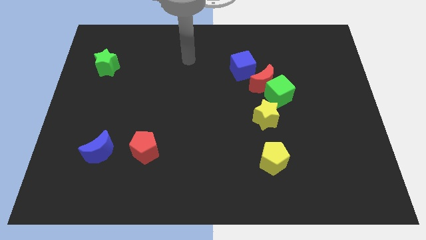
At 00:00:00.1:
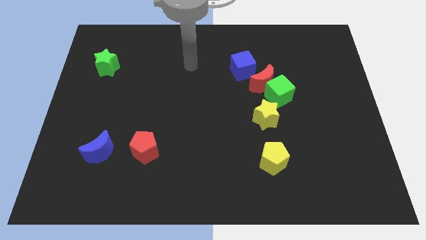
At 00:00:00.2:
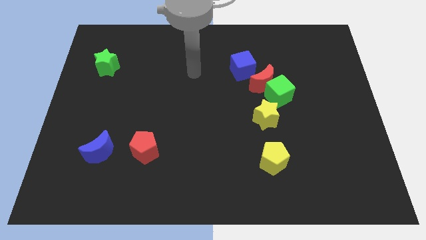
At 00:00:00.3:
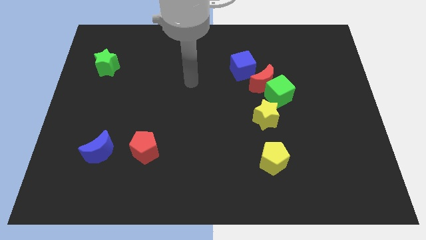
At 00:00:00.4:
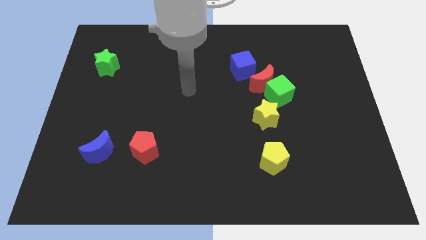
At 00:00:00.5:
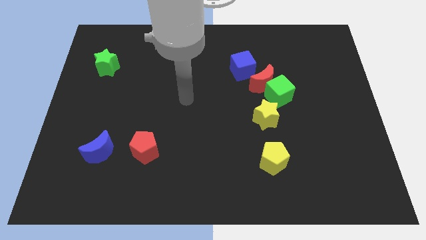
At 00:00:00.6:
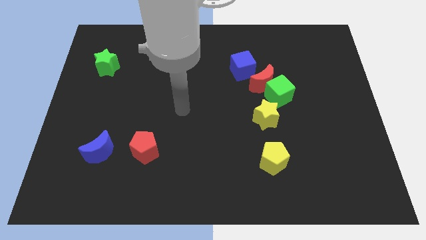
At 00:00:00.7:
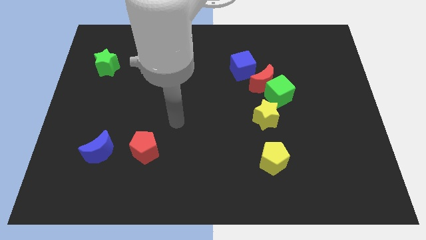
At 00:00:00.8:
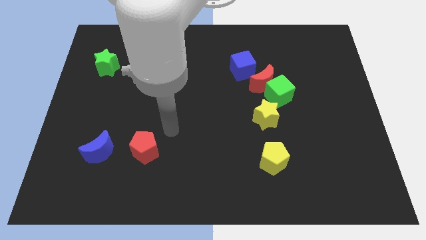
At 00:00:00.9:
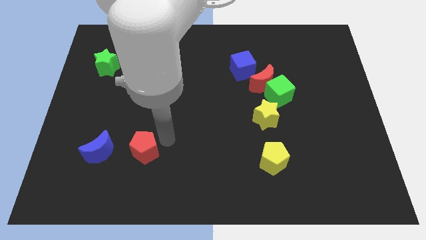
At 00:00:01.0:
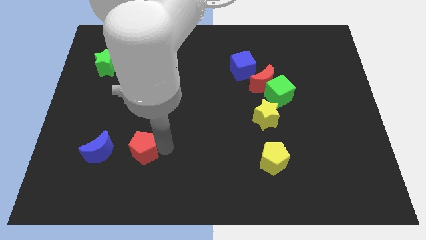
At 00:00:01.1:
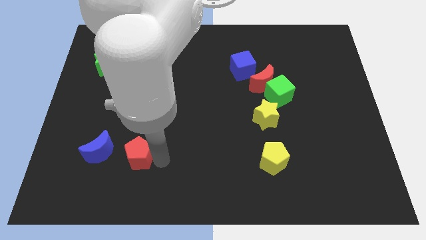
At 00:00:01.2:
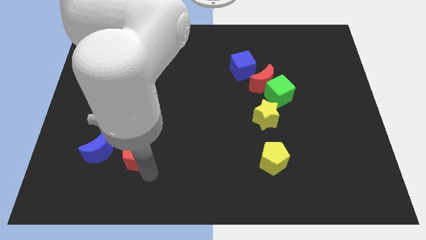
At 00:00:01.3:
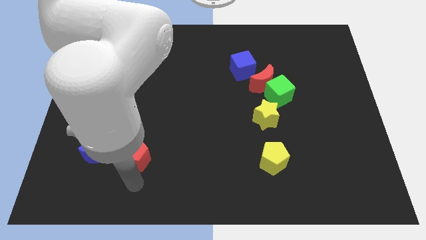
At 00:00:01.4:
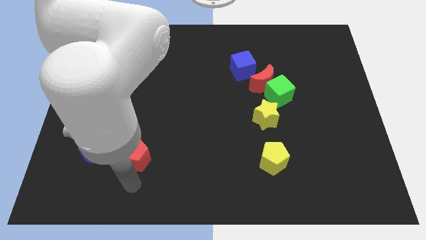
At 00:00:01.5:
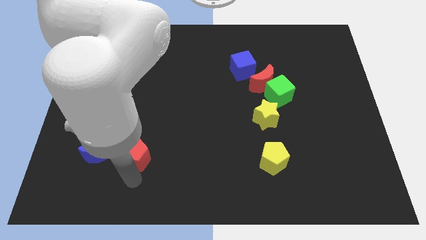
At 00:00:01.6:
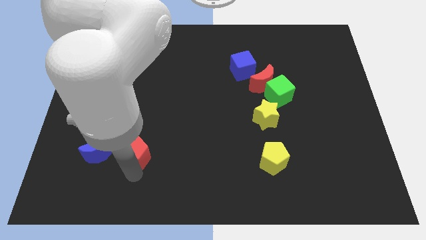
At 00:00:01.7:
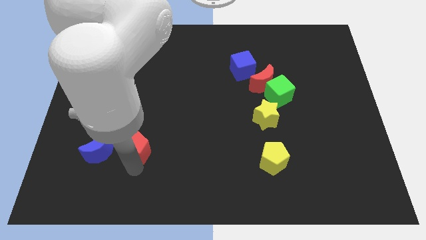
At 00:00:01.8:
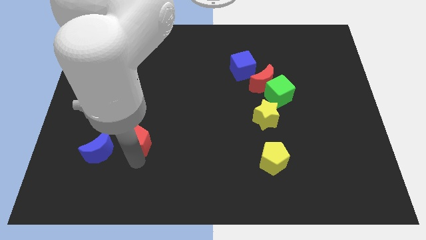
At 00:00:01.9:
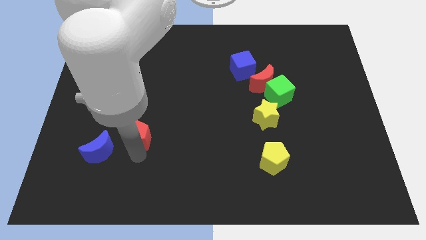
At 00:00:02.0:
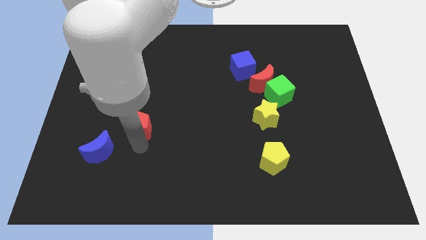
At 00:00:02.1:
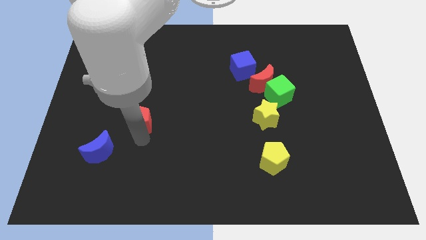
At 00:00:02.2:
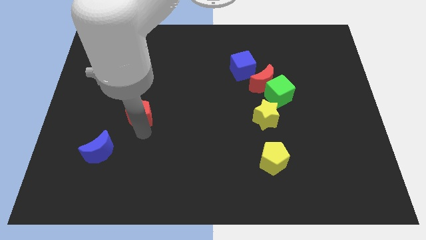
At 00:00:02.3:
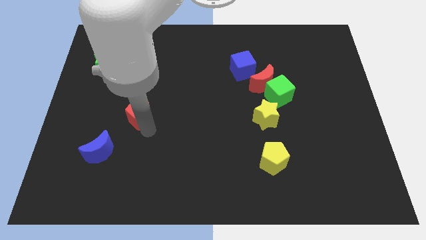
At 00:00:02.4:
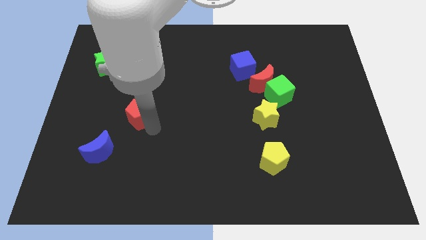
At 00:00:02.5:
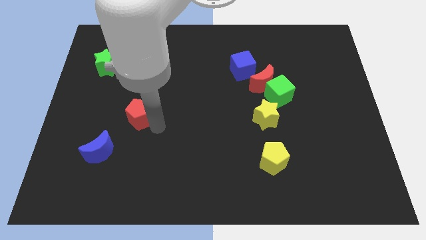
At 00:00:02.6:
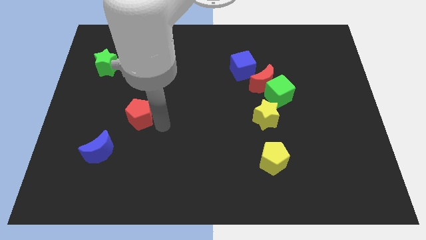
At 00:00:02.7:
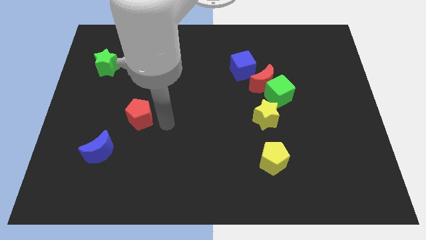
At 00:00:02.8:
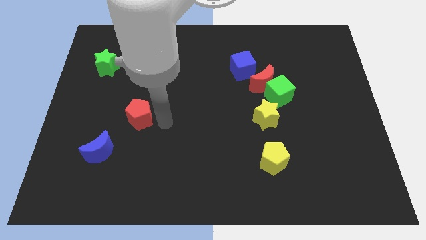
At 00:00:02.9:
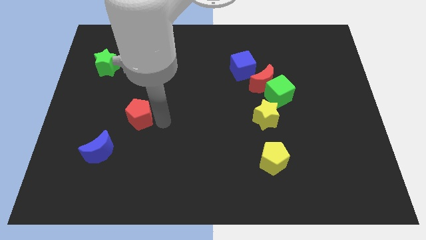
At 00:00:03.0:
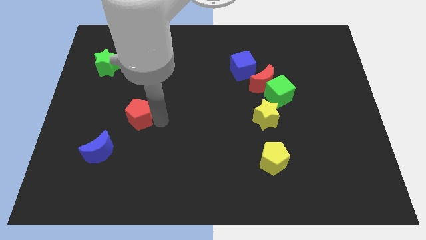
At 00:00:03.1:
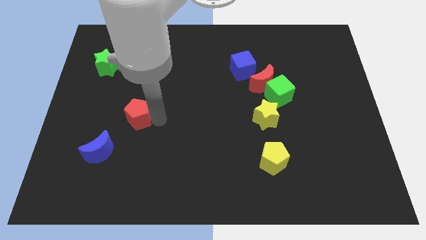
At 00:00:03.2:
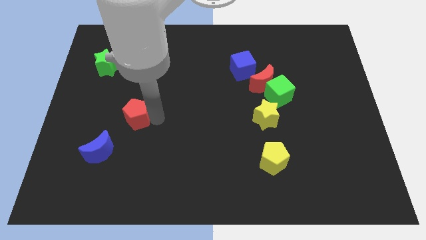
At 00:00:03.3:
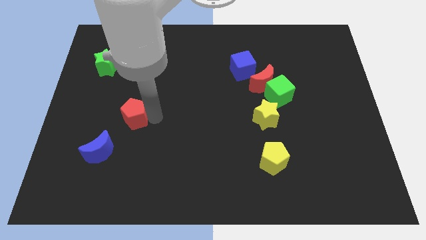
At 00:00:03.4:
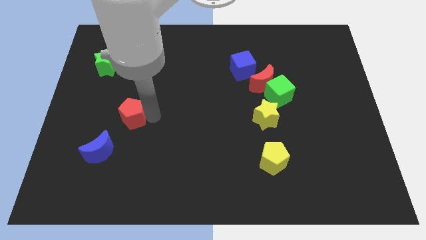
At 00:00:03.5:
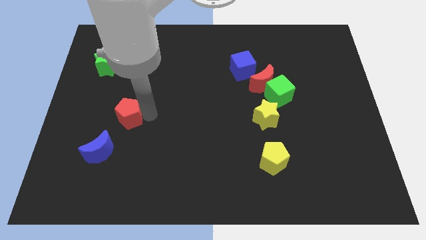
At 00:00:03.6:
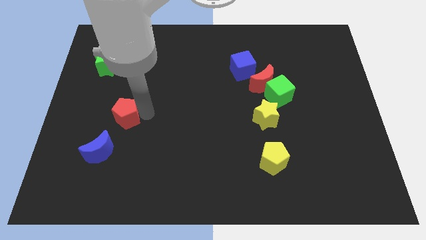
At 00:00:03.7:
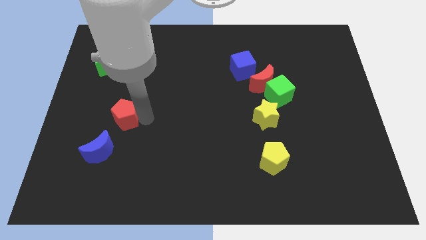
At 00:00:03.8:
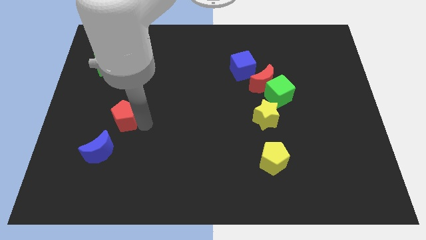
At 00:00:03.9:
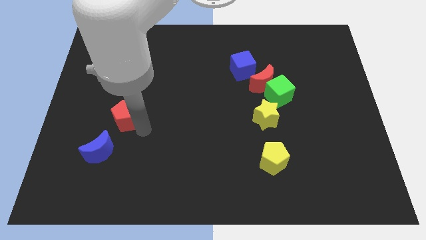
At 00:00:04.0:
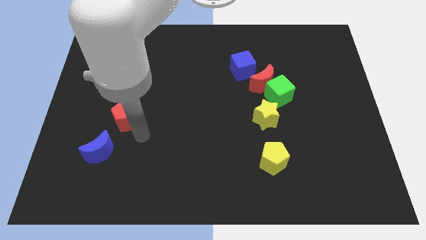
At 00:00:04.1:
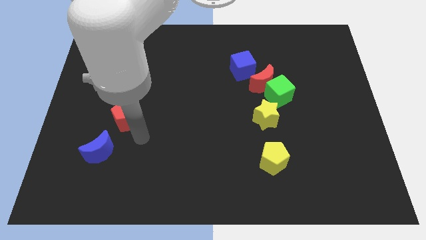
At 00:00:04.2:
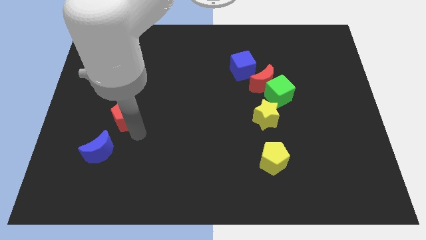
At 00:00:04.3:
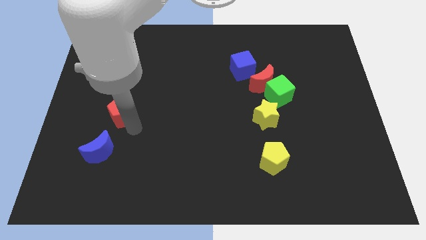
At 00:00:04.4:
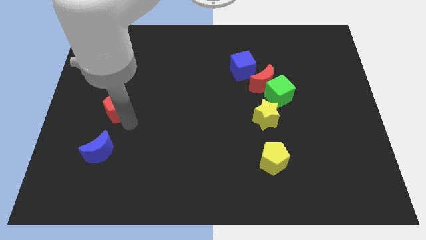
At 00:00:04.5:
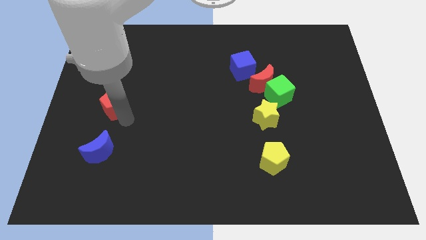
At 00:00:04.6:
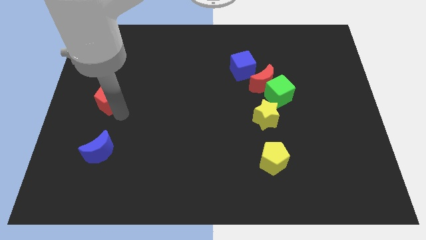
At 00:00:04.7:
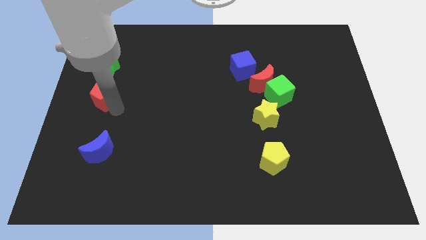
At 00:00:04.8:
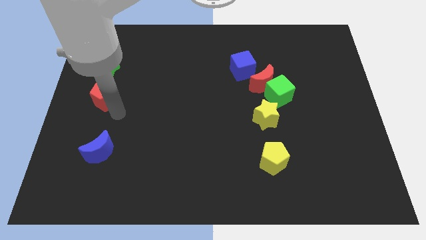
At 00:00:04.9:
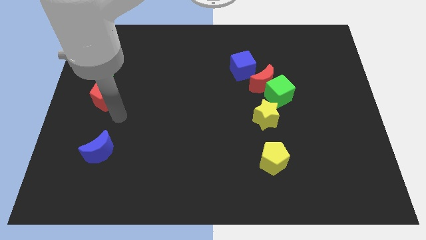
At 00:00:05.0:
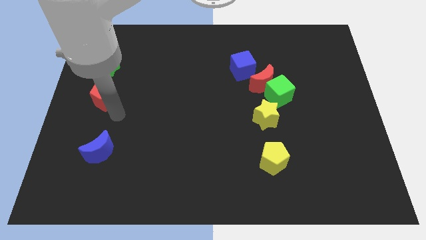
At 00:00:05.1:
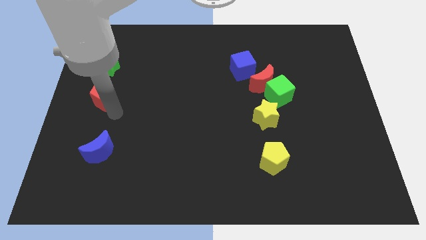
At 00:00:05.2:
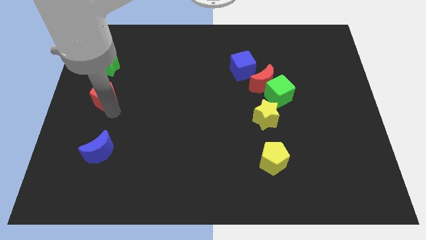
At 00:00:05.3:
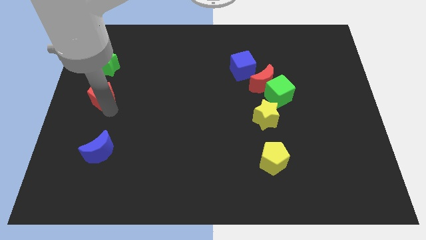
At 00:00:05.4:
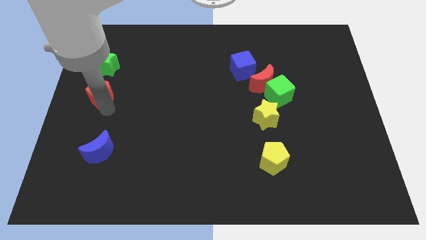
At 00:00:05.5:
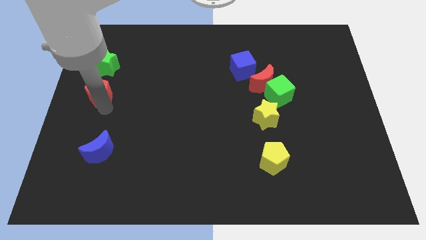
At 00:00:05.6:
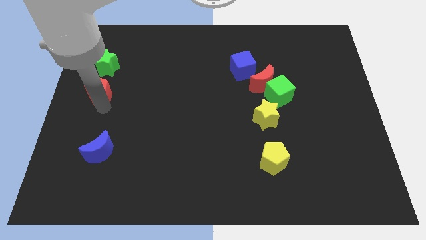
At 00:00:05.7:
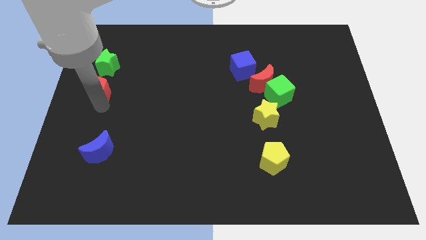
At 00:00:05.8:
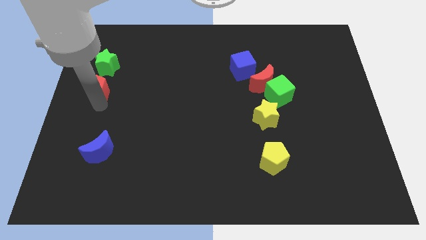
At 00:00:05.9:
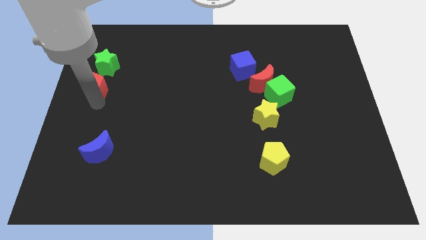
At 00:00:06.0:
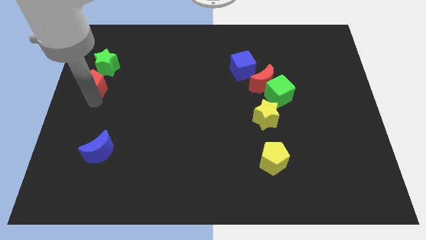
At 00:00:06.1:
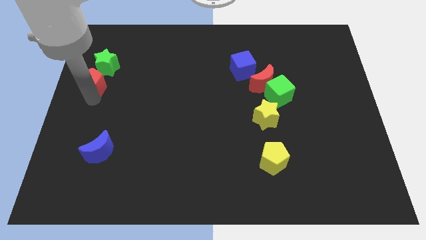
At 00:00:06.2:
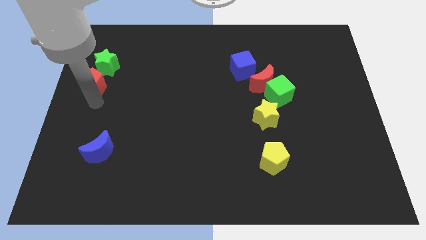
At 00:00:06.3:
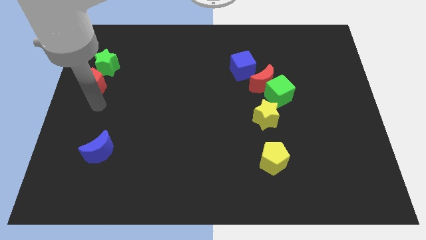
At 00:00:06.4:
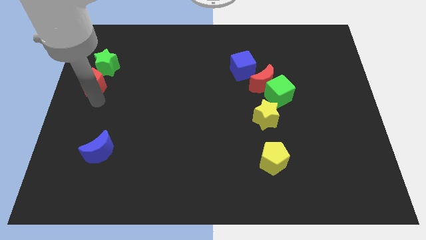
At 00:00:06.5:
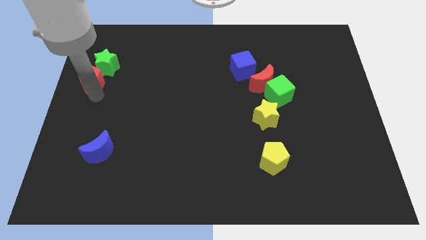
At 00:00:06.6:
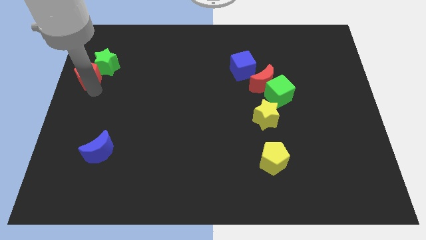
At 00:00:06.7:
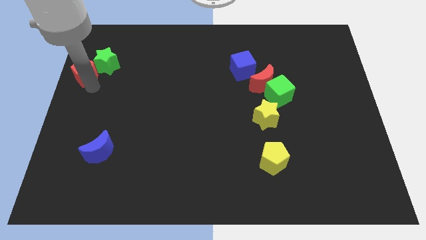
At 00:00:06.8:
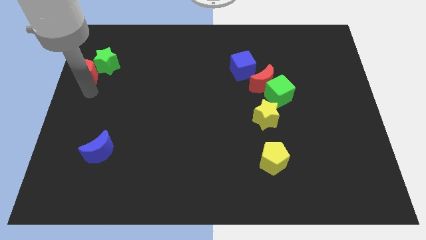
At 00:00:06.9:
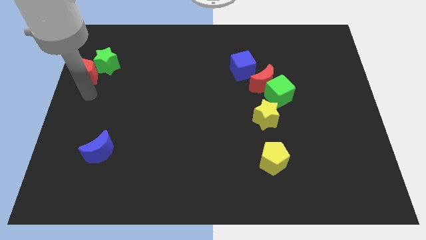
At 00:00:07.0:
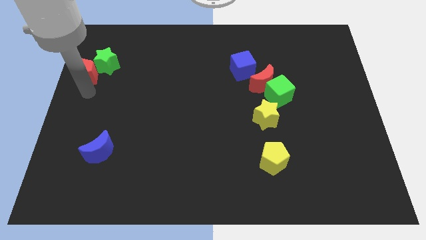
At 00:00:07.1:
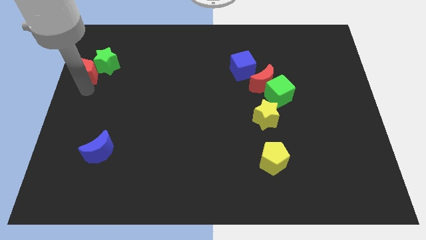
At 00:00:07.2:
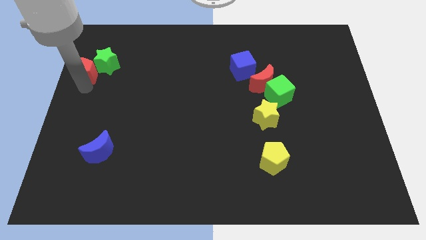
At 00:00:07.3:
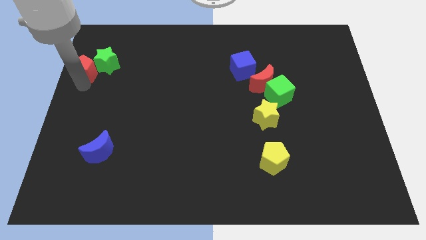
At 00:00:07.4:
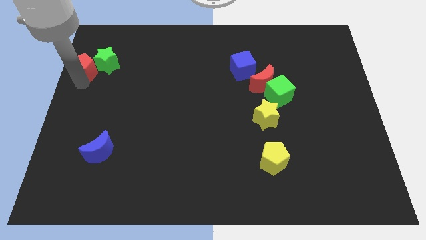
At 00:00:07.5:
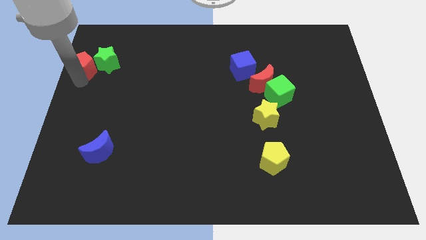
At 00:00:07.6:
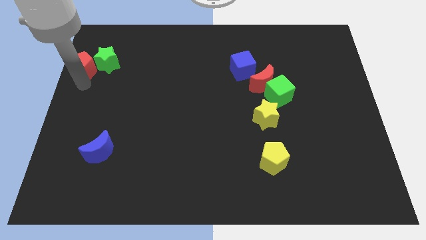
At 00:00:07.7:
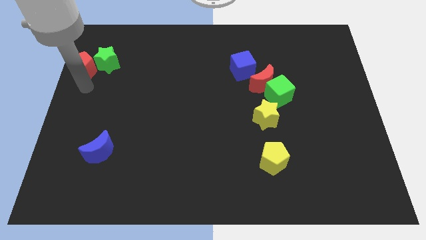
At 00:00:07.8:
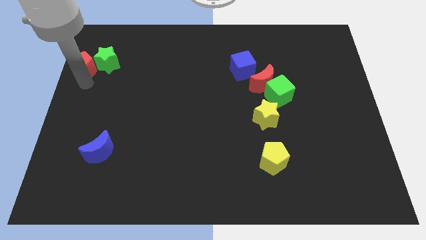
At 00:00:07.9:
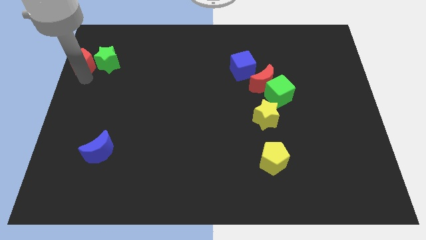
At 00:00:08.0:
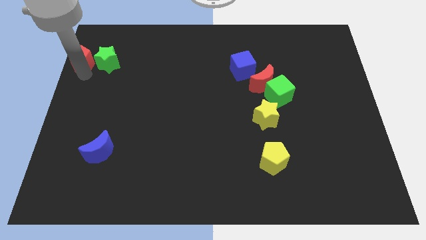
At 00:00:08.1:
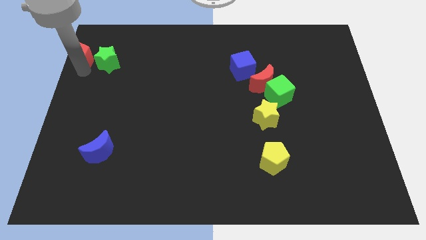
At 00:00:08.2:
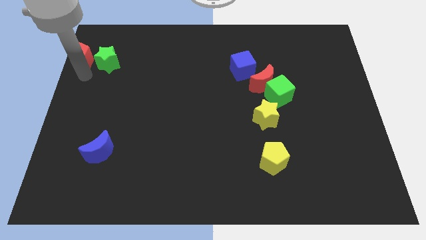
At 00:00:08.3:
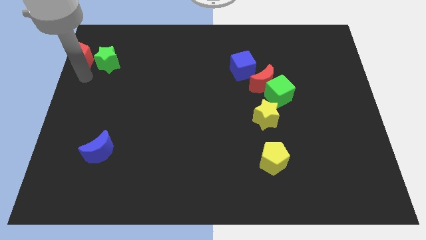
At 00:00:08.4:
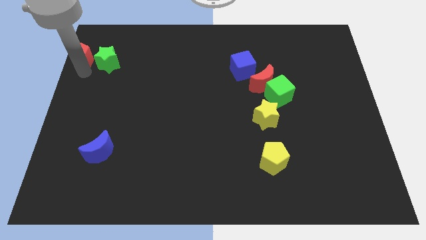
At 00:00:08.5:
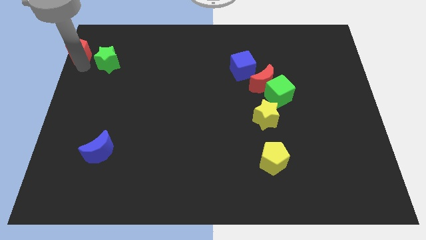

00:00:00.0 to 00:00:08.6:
move the red pentagon to the top left of the board
